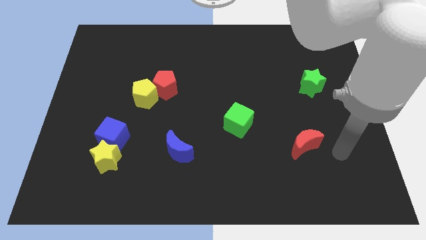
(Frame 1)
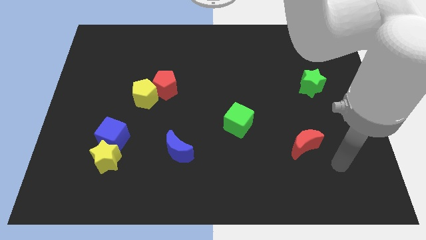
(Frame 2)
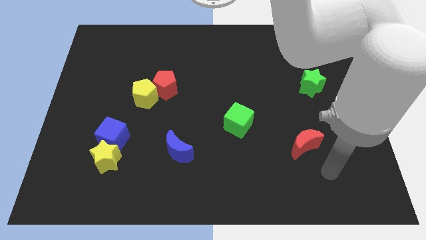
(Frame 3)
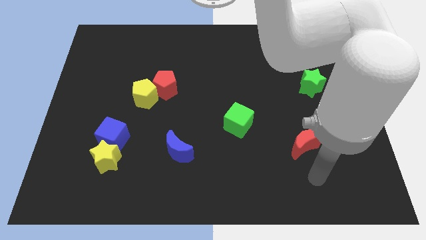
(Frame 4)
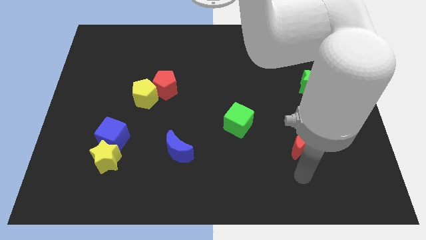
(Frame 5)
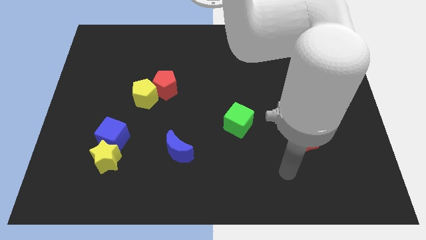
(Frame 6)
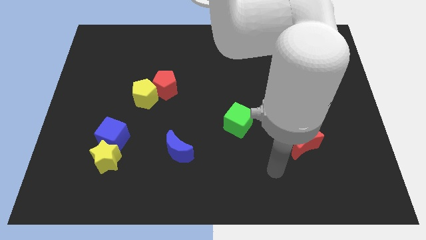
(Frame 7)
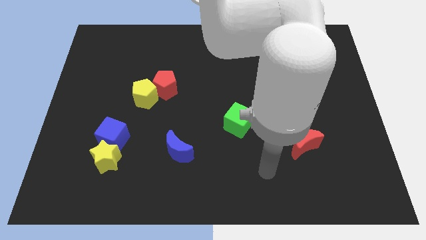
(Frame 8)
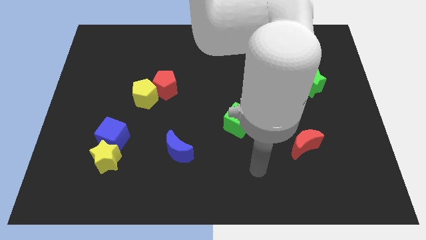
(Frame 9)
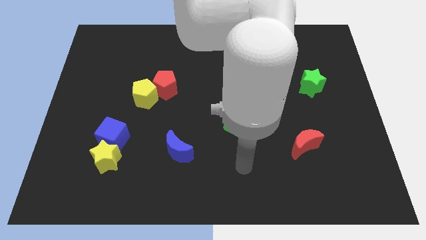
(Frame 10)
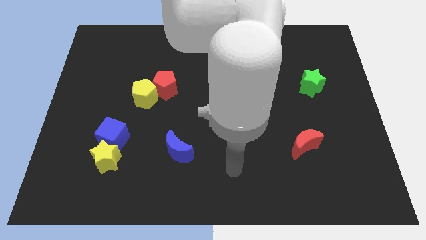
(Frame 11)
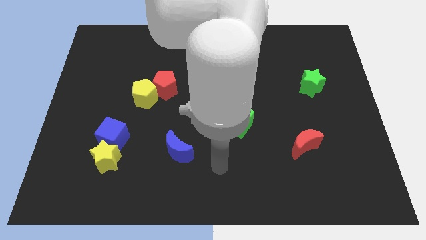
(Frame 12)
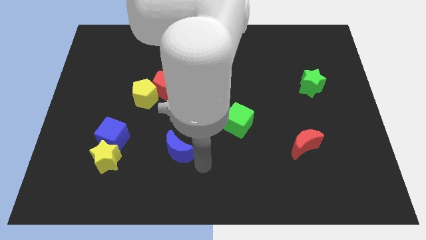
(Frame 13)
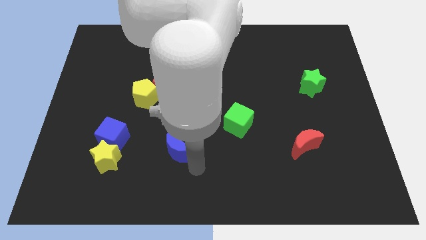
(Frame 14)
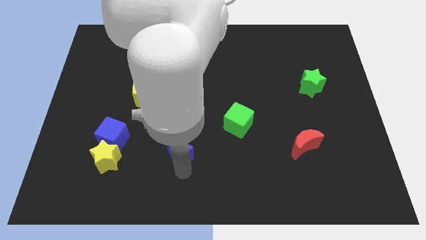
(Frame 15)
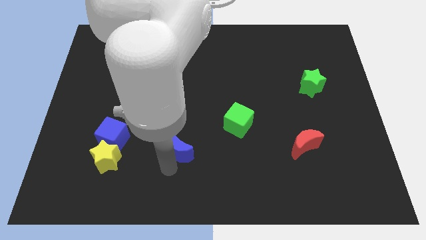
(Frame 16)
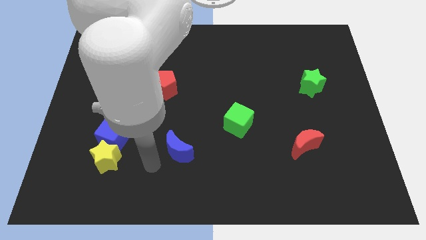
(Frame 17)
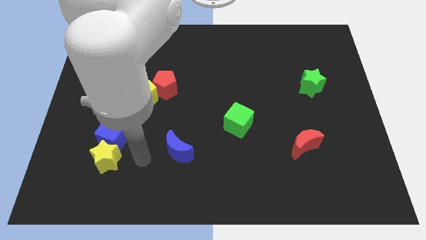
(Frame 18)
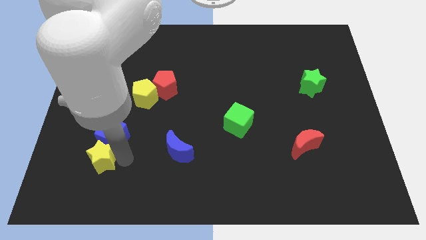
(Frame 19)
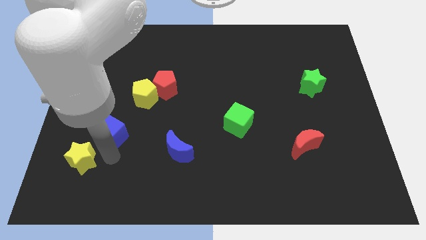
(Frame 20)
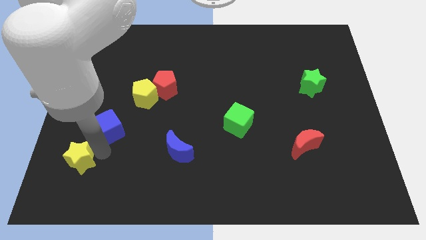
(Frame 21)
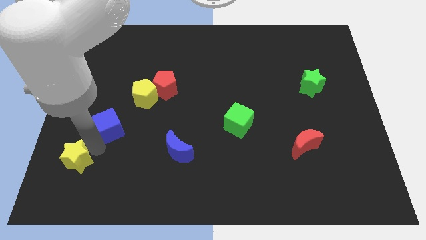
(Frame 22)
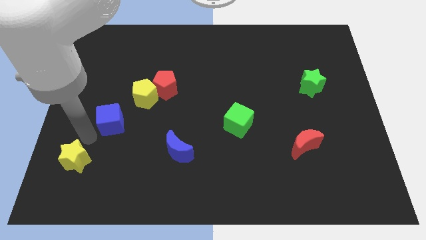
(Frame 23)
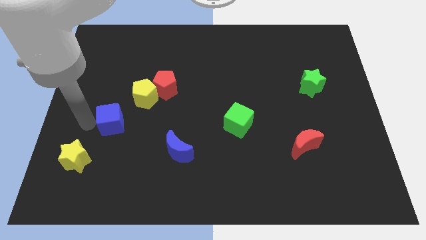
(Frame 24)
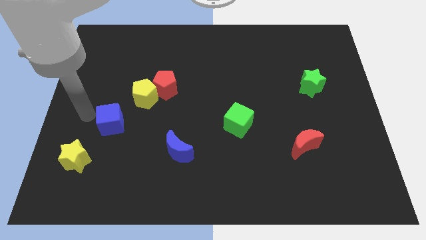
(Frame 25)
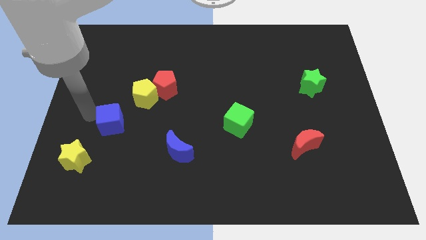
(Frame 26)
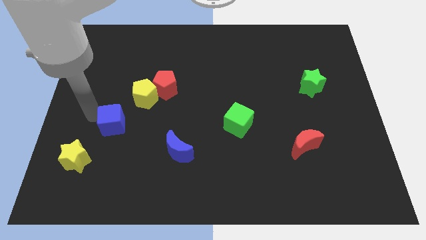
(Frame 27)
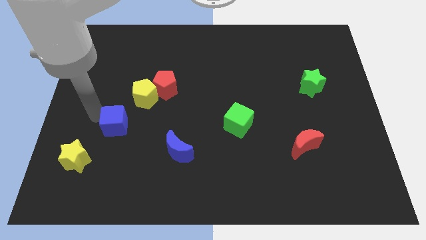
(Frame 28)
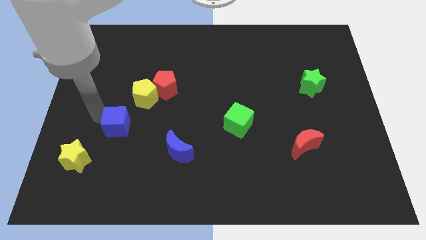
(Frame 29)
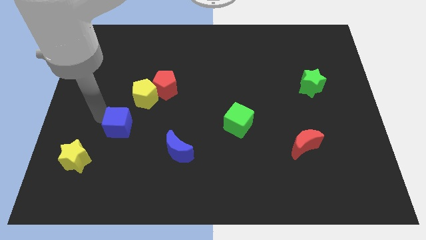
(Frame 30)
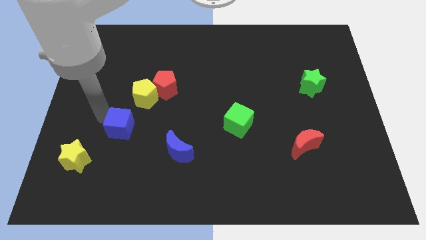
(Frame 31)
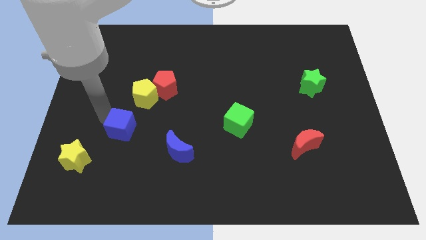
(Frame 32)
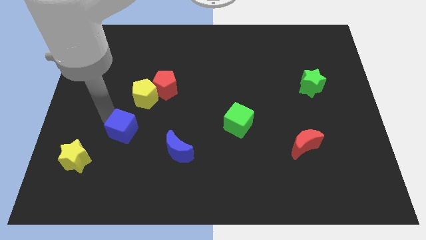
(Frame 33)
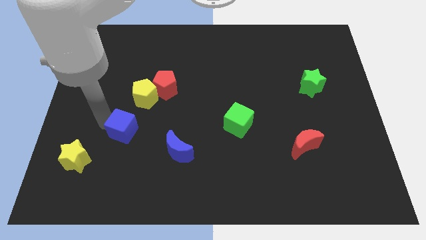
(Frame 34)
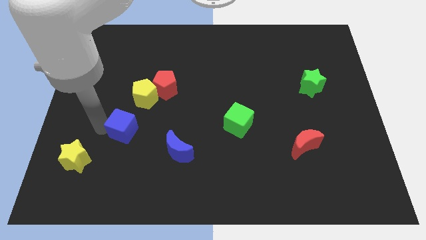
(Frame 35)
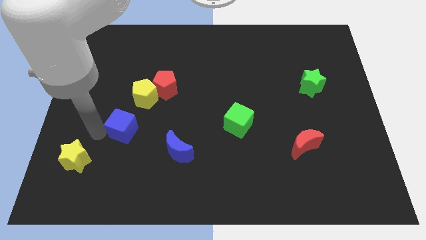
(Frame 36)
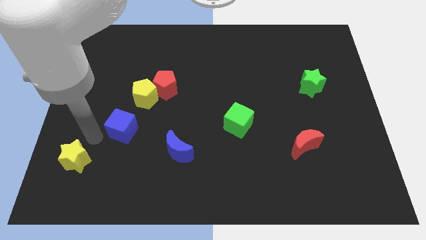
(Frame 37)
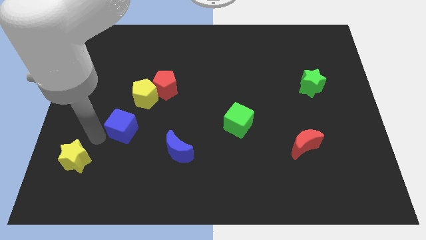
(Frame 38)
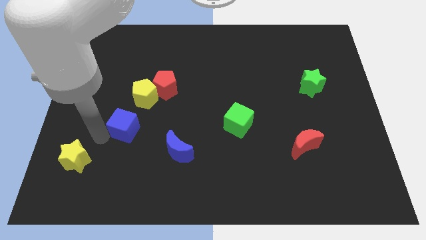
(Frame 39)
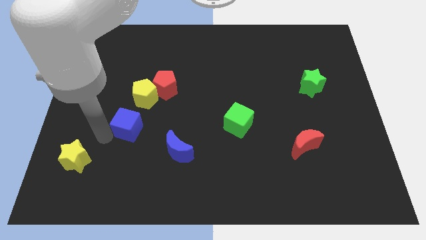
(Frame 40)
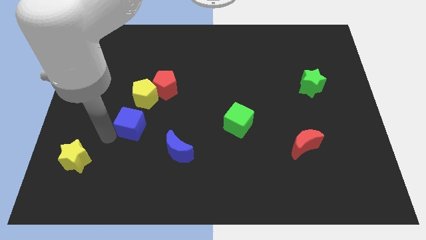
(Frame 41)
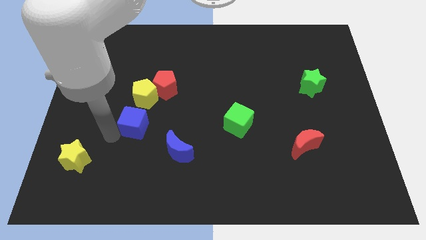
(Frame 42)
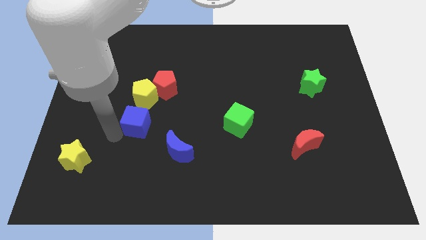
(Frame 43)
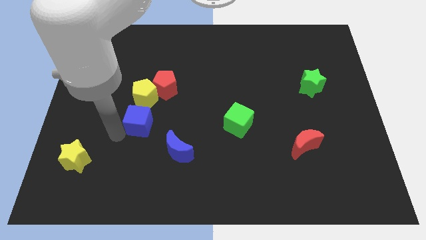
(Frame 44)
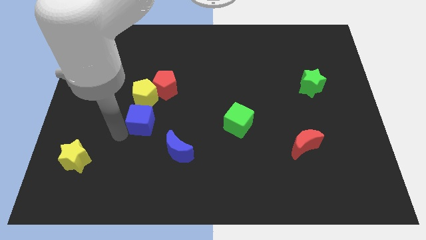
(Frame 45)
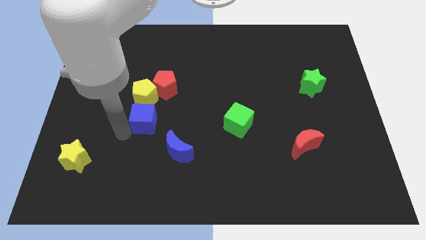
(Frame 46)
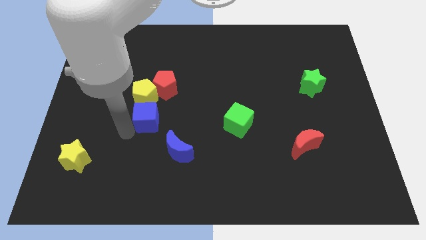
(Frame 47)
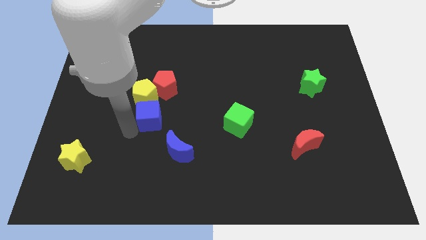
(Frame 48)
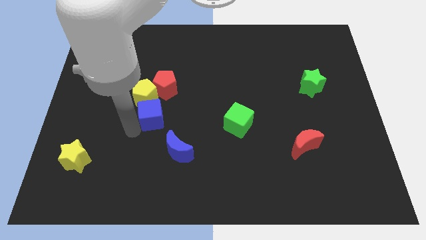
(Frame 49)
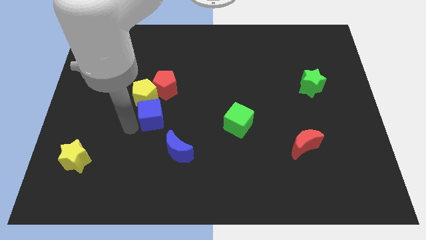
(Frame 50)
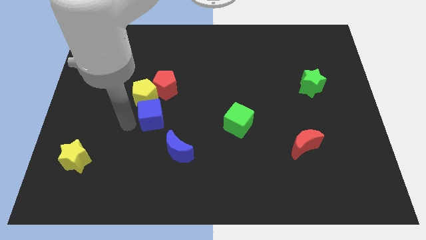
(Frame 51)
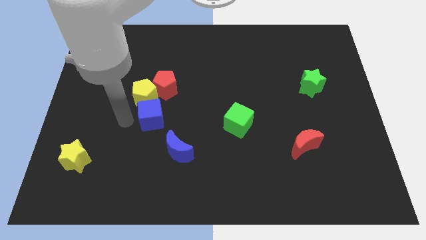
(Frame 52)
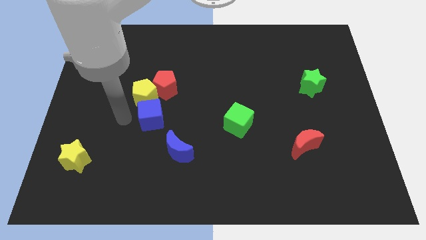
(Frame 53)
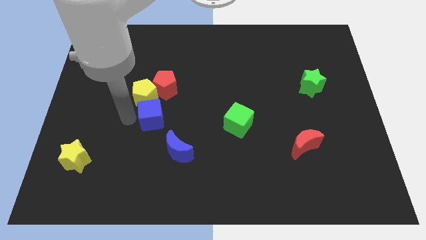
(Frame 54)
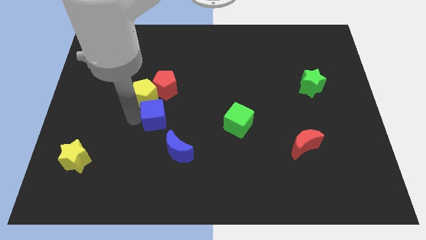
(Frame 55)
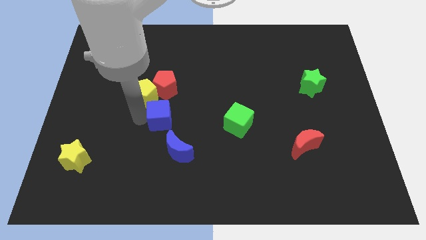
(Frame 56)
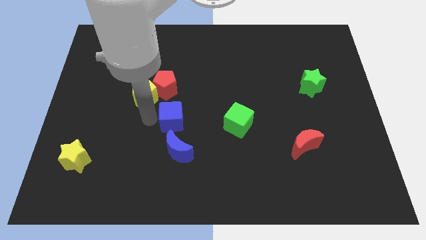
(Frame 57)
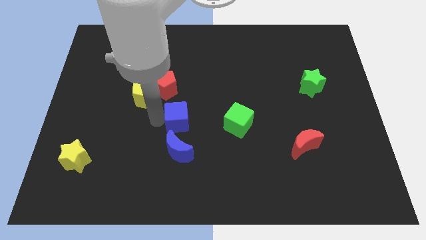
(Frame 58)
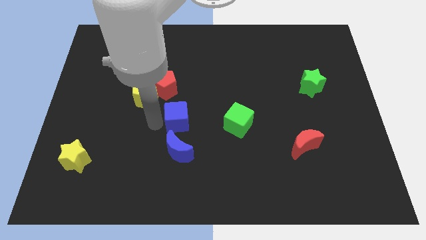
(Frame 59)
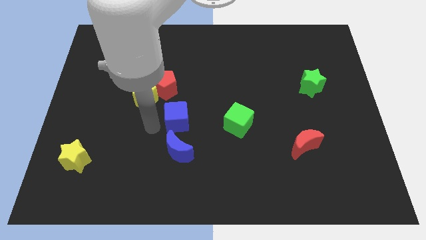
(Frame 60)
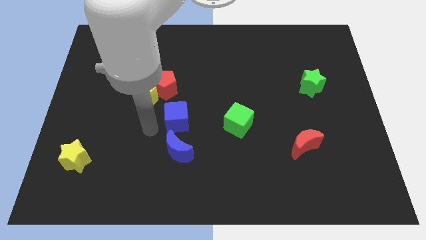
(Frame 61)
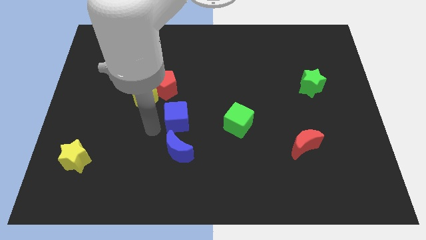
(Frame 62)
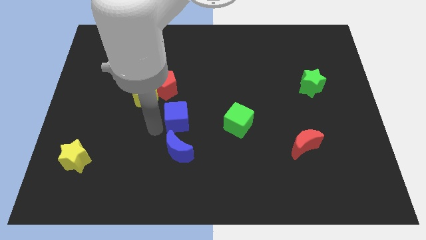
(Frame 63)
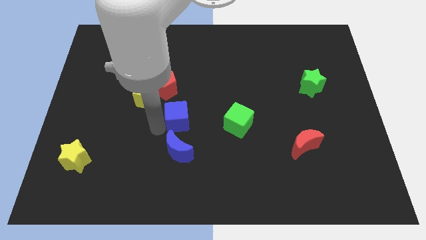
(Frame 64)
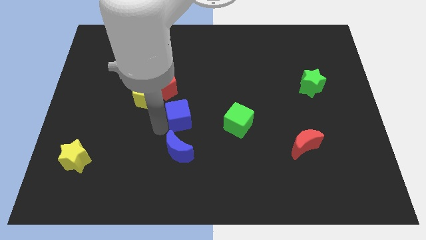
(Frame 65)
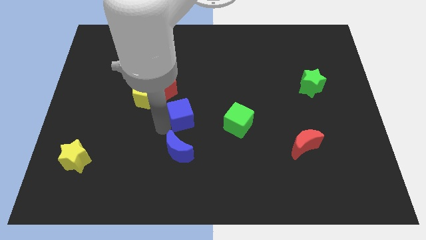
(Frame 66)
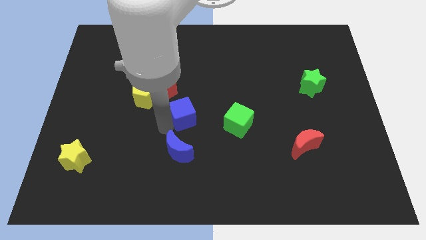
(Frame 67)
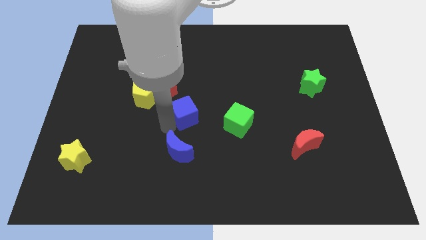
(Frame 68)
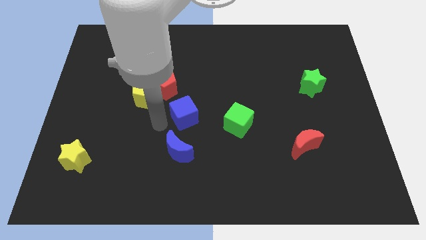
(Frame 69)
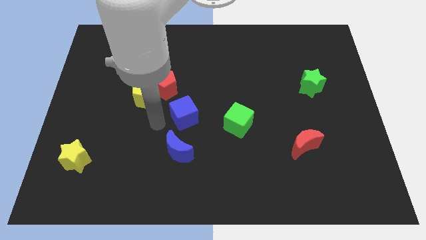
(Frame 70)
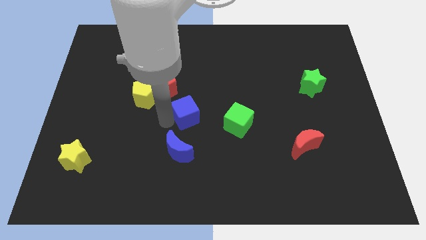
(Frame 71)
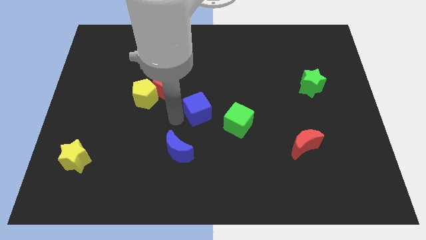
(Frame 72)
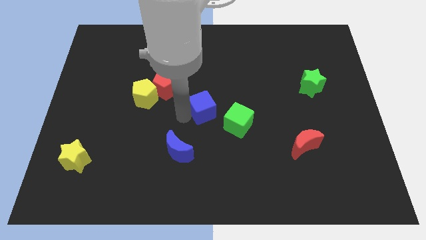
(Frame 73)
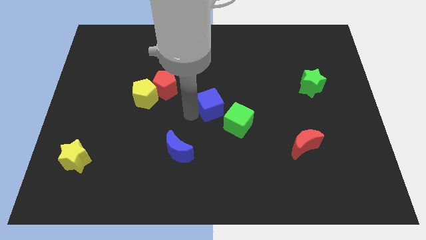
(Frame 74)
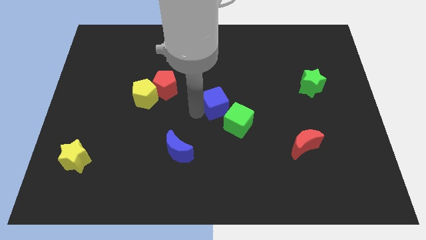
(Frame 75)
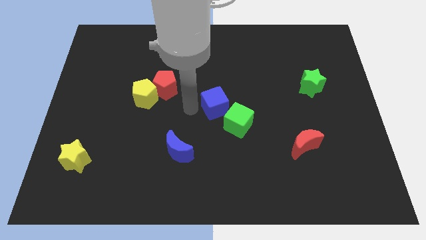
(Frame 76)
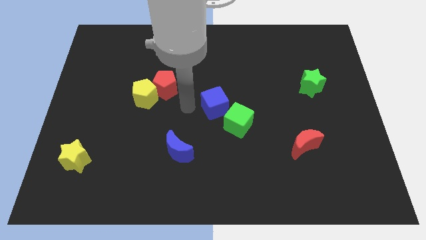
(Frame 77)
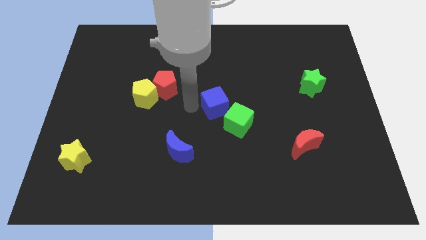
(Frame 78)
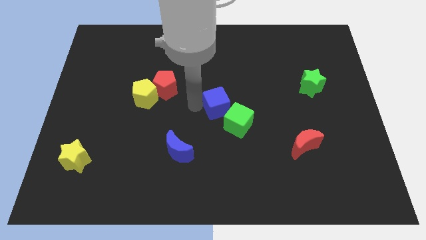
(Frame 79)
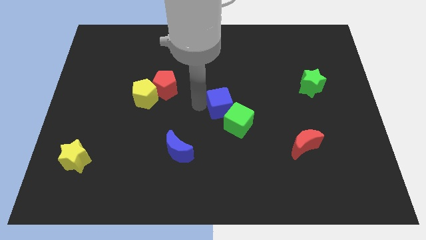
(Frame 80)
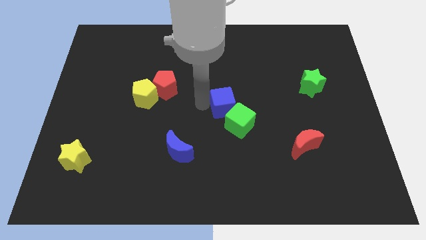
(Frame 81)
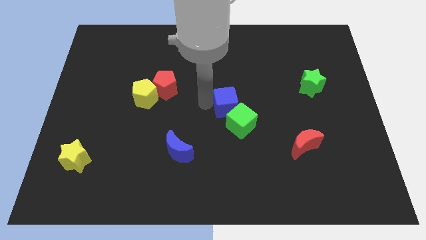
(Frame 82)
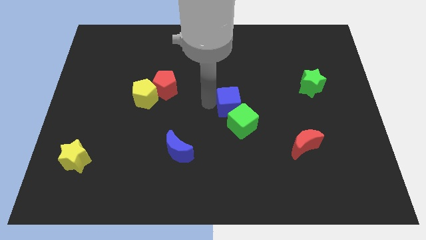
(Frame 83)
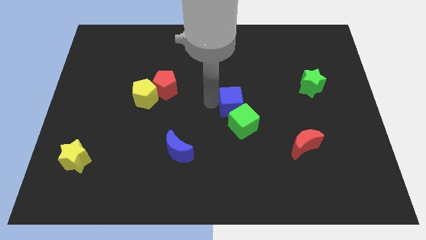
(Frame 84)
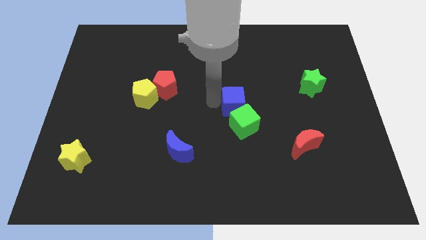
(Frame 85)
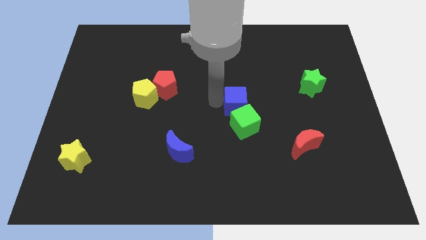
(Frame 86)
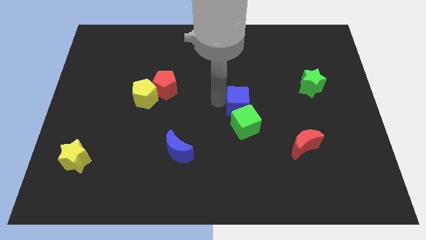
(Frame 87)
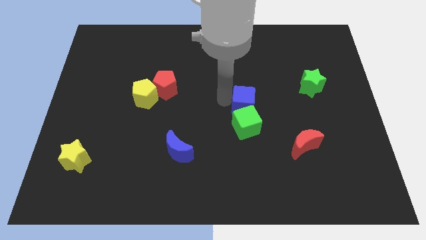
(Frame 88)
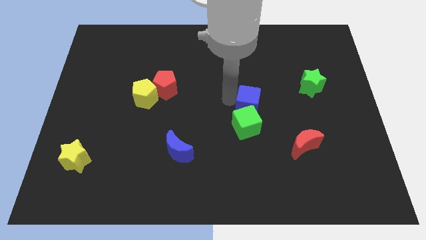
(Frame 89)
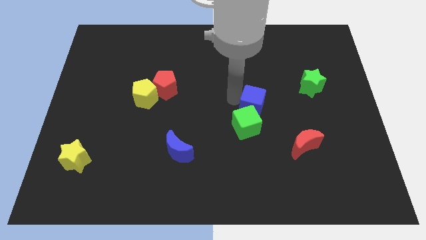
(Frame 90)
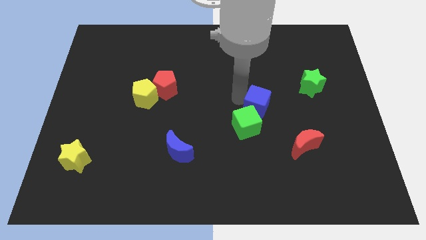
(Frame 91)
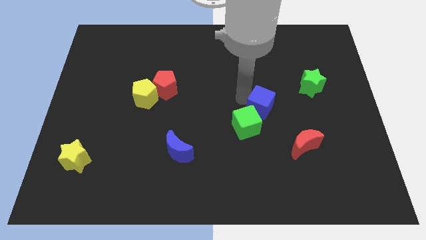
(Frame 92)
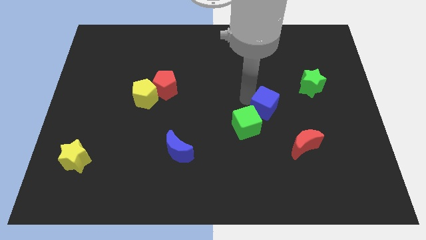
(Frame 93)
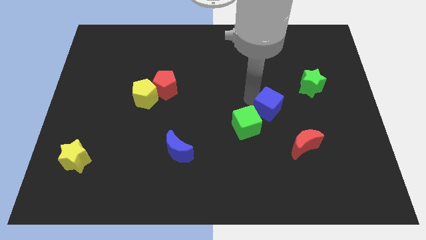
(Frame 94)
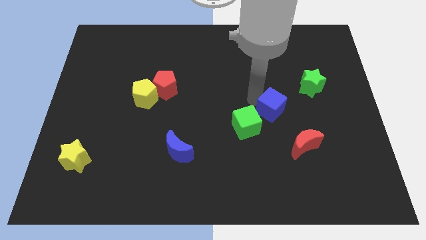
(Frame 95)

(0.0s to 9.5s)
slide the blue cube just right of the green cube
